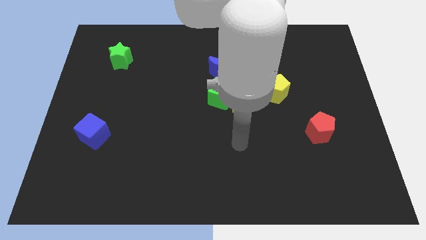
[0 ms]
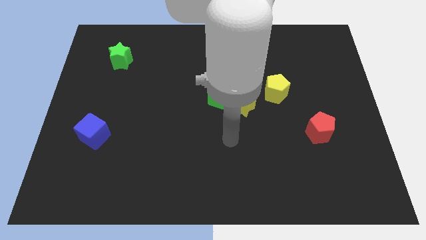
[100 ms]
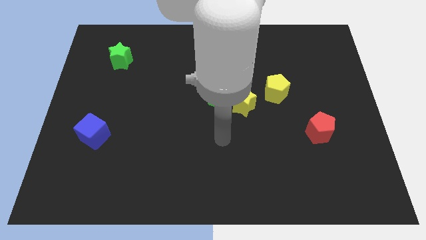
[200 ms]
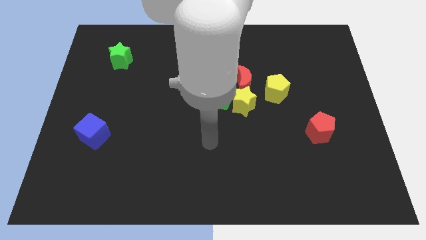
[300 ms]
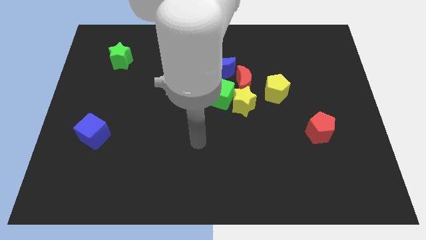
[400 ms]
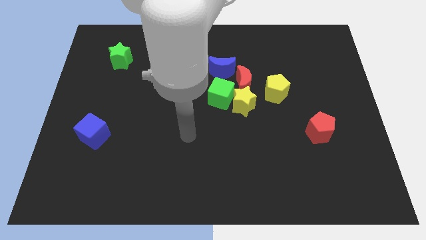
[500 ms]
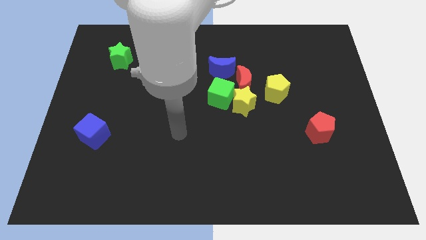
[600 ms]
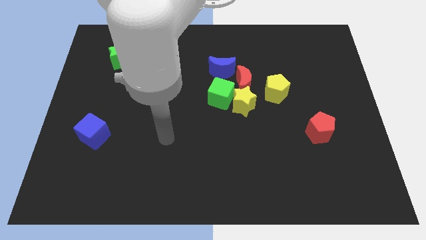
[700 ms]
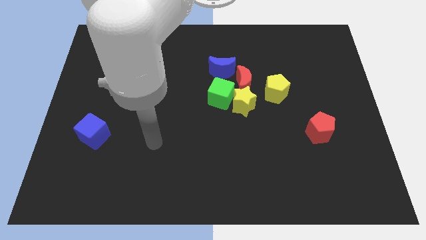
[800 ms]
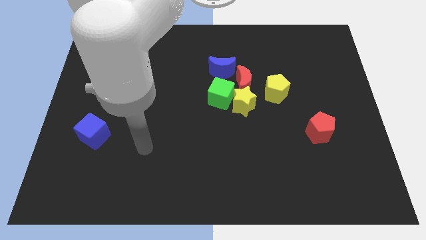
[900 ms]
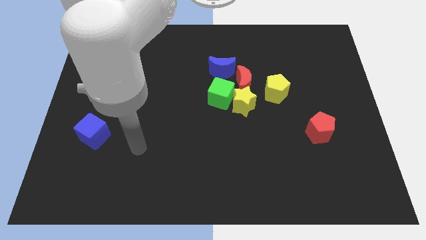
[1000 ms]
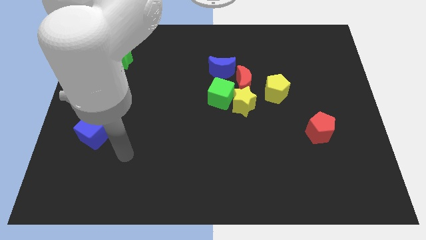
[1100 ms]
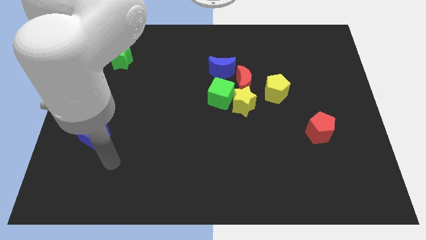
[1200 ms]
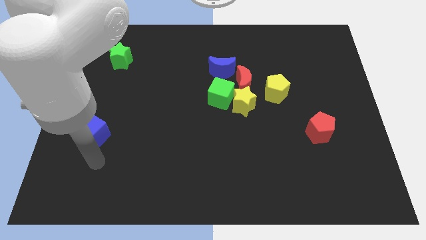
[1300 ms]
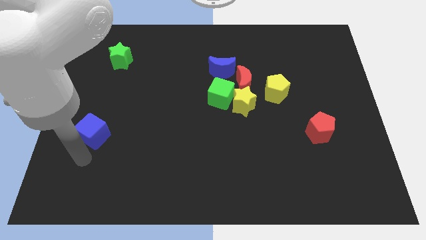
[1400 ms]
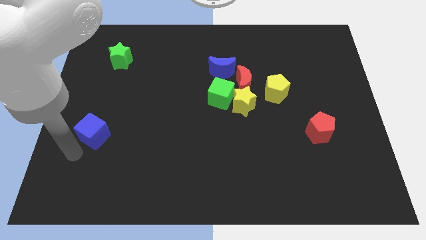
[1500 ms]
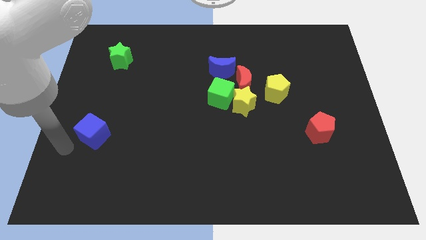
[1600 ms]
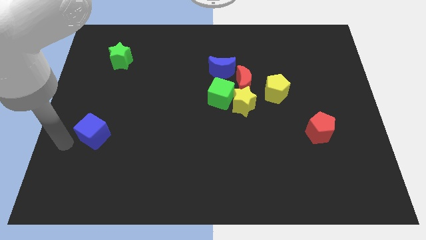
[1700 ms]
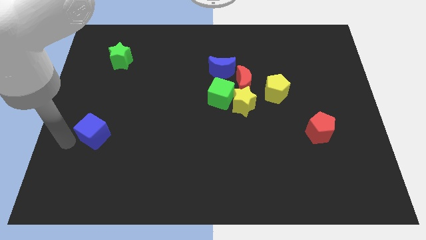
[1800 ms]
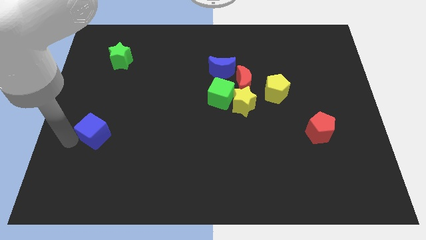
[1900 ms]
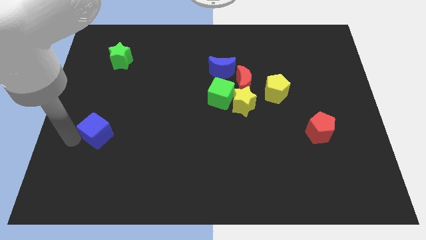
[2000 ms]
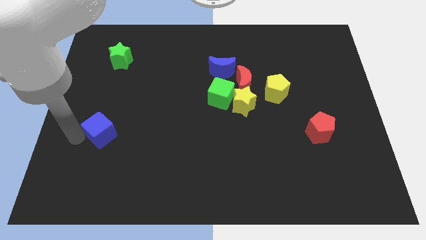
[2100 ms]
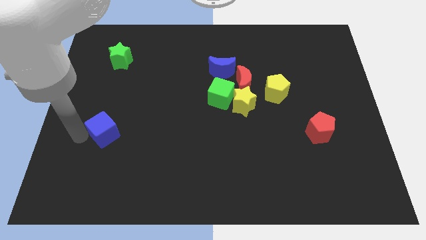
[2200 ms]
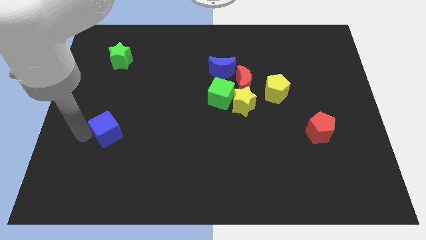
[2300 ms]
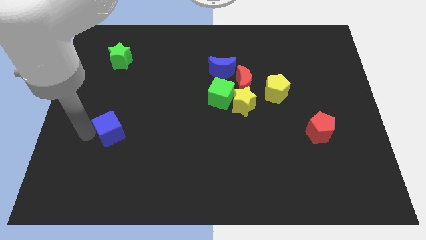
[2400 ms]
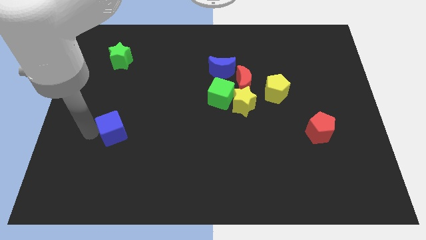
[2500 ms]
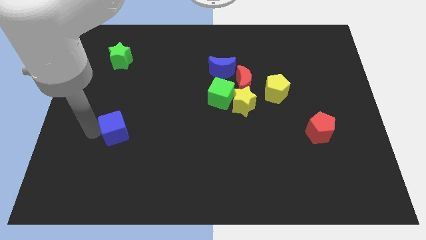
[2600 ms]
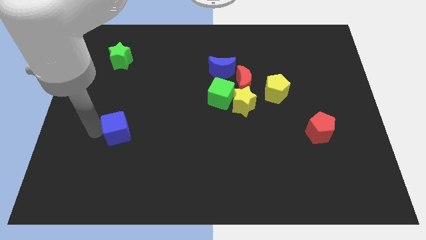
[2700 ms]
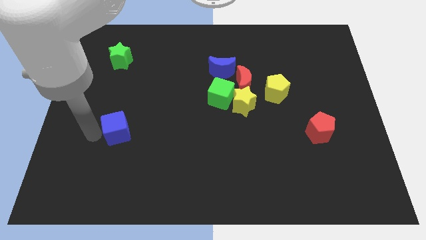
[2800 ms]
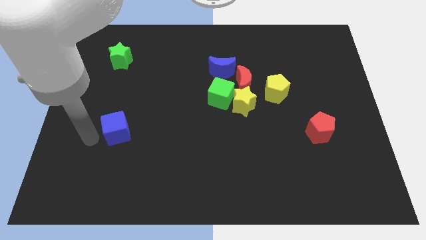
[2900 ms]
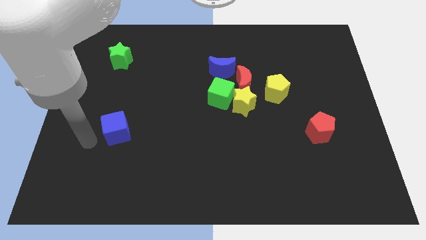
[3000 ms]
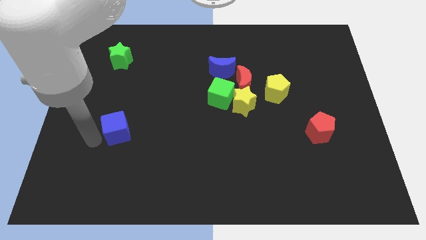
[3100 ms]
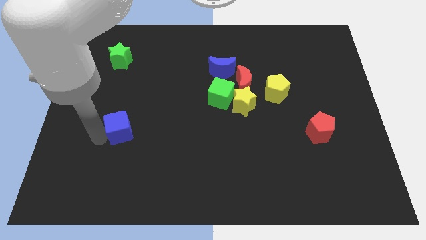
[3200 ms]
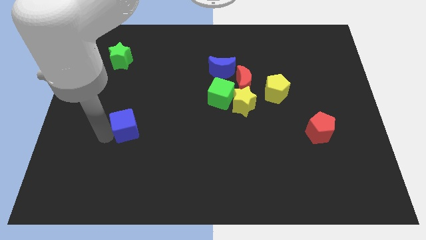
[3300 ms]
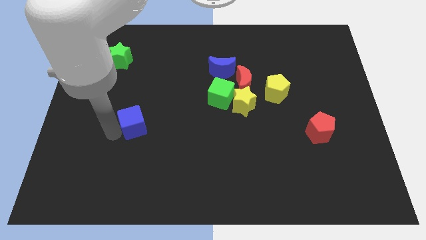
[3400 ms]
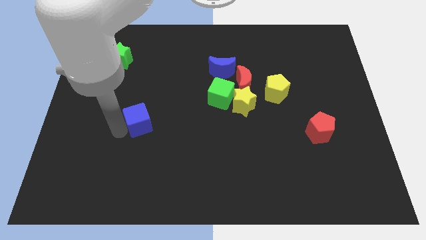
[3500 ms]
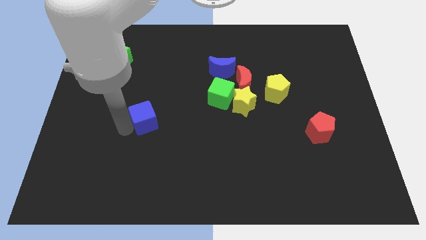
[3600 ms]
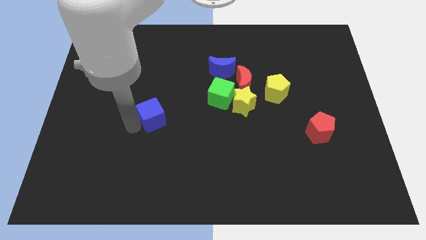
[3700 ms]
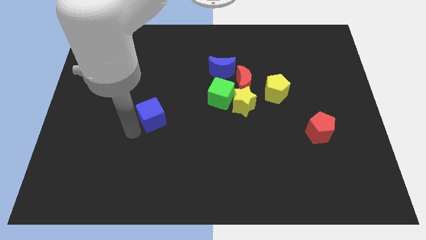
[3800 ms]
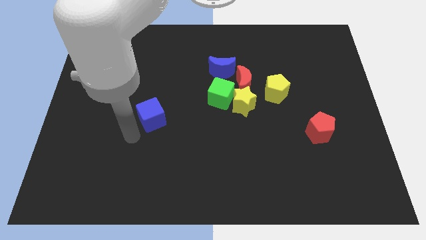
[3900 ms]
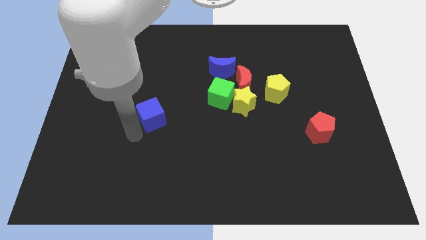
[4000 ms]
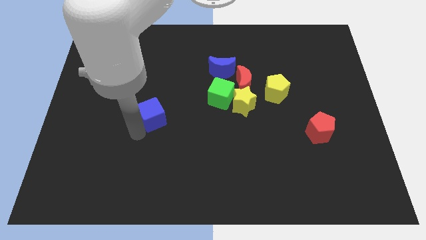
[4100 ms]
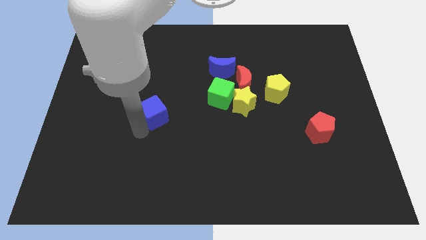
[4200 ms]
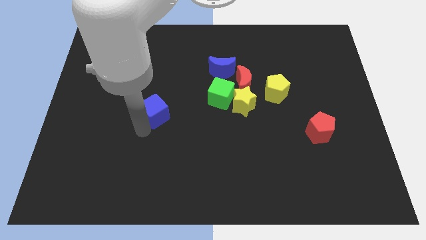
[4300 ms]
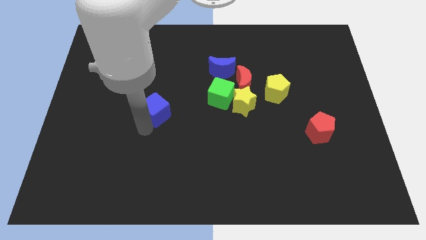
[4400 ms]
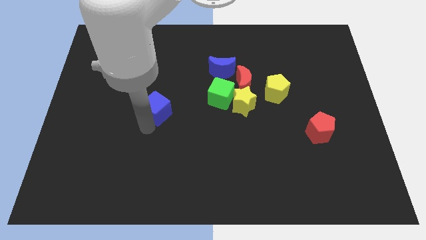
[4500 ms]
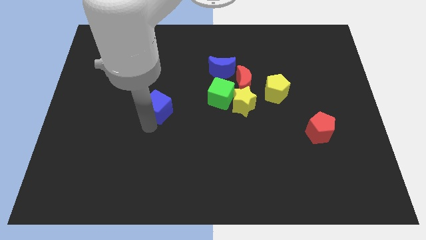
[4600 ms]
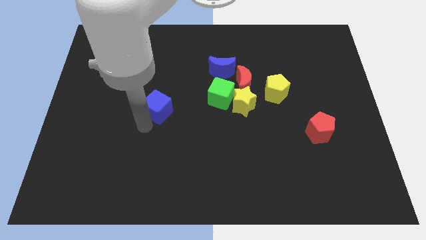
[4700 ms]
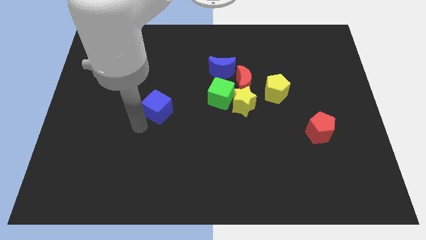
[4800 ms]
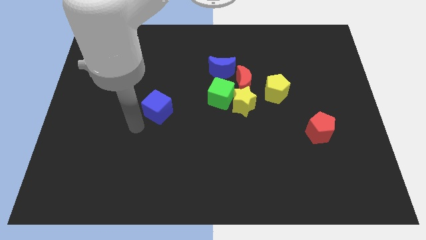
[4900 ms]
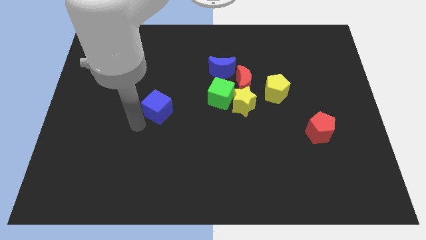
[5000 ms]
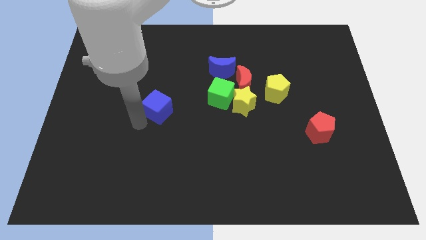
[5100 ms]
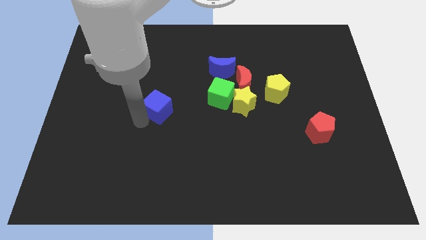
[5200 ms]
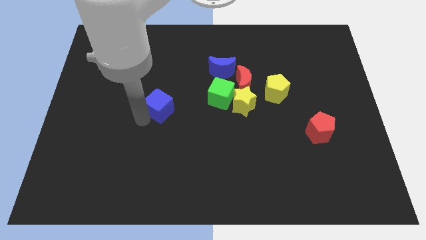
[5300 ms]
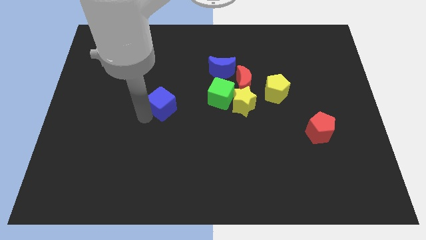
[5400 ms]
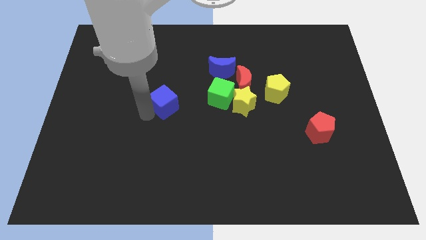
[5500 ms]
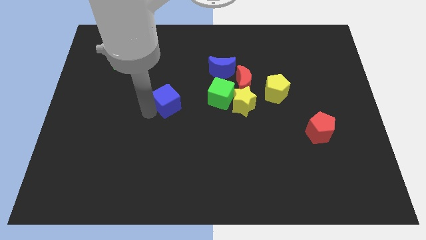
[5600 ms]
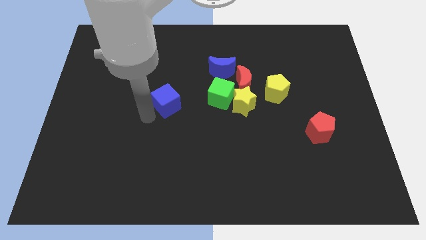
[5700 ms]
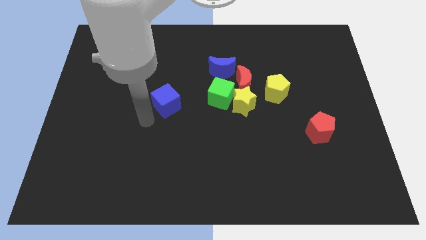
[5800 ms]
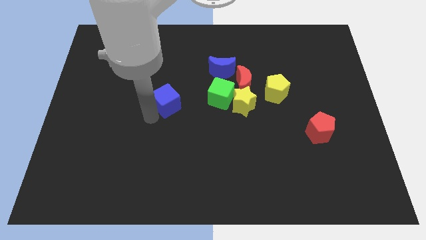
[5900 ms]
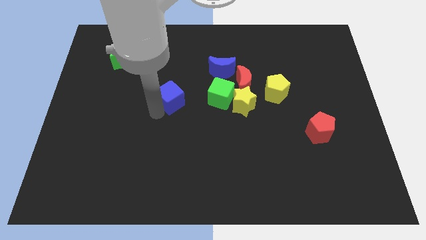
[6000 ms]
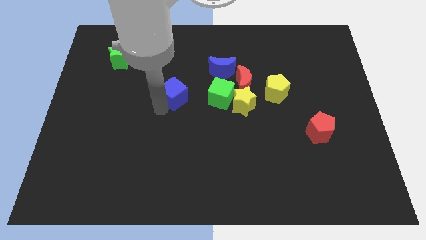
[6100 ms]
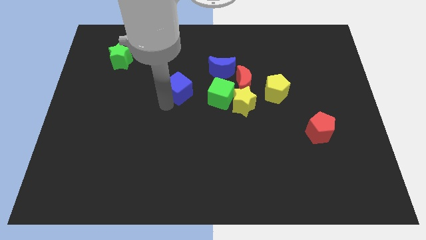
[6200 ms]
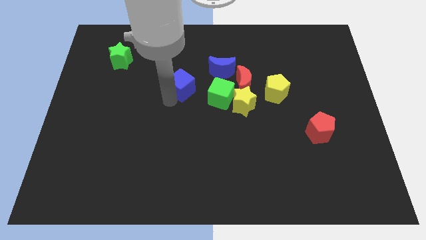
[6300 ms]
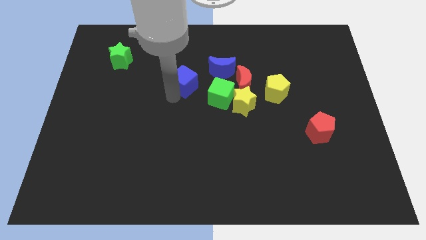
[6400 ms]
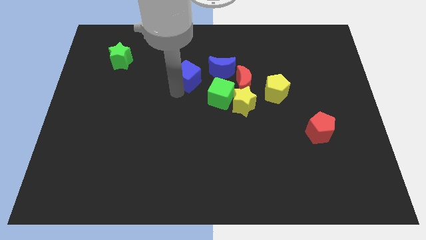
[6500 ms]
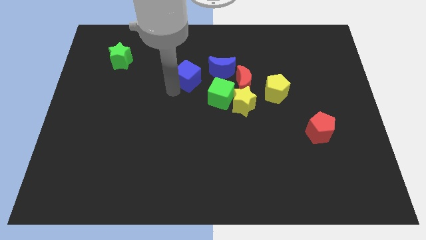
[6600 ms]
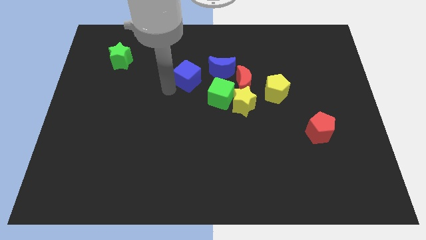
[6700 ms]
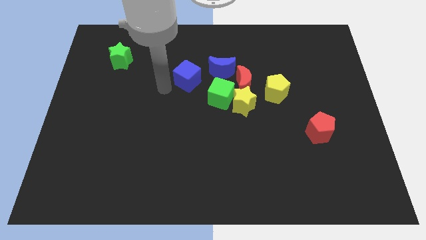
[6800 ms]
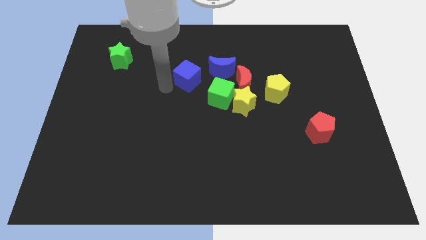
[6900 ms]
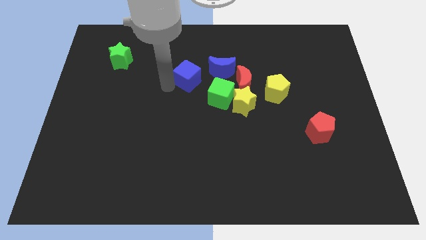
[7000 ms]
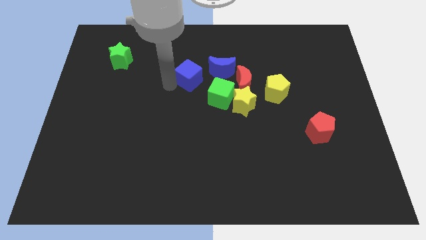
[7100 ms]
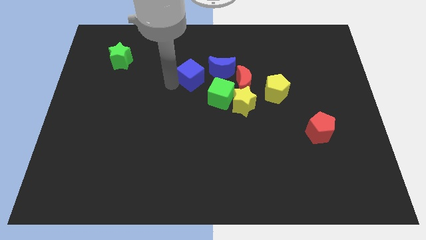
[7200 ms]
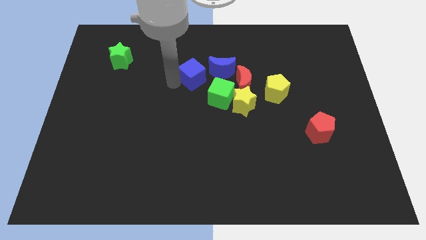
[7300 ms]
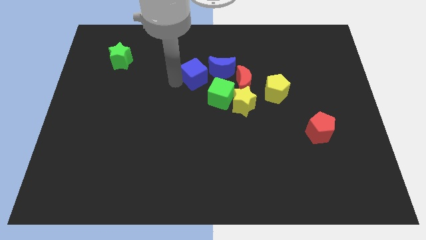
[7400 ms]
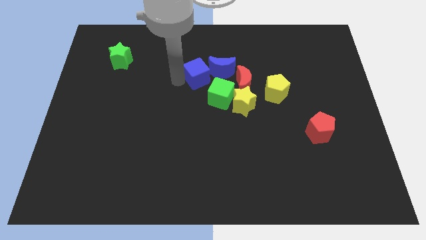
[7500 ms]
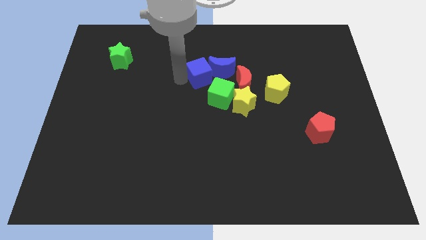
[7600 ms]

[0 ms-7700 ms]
slide the blue cube close to the blue moon
